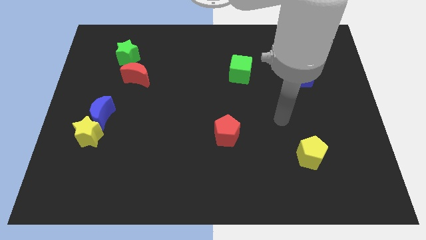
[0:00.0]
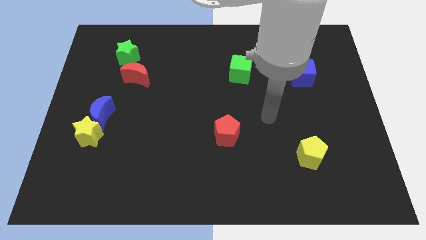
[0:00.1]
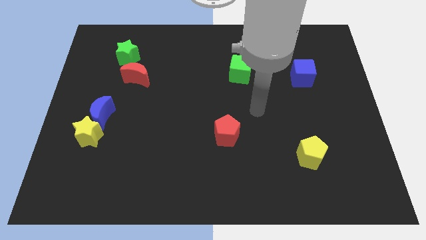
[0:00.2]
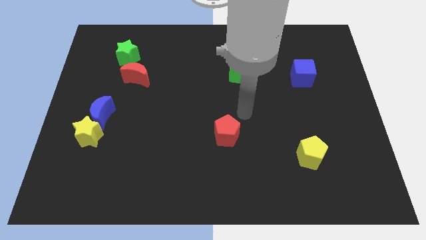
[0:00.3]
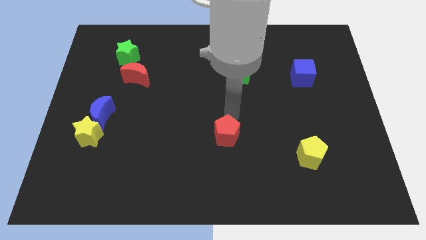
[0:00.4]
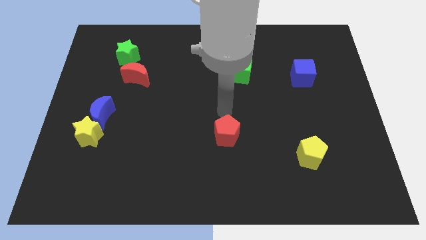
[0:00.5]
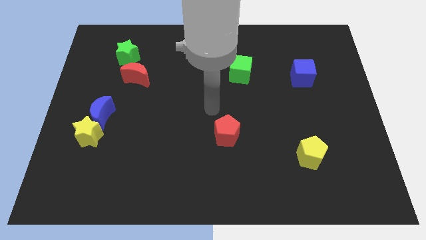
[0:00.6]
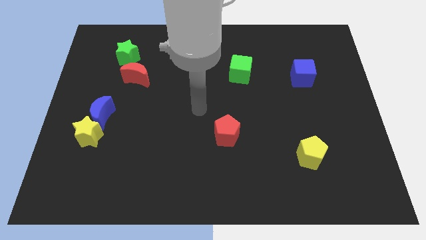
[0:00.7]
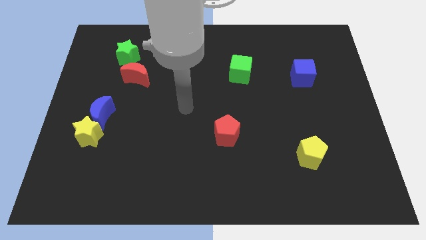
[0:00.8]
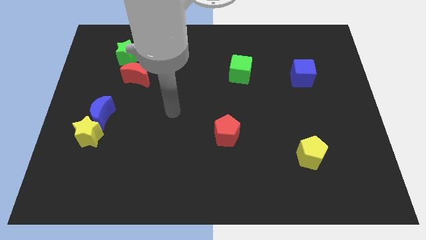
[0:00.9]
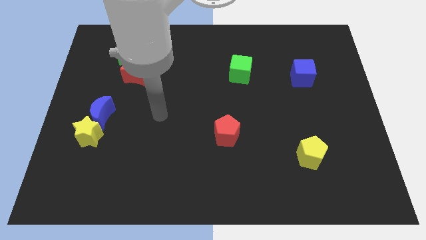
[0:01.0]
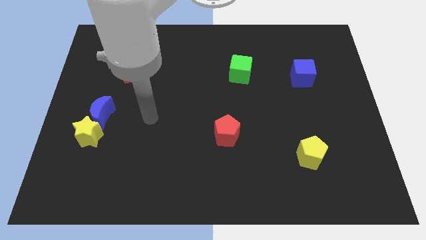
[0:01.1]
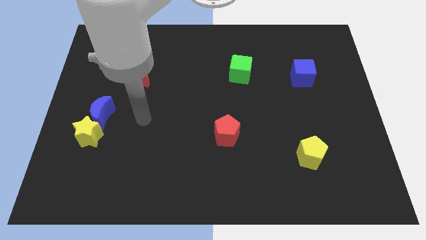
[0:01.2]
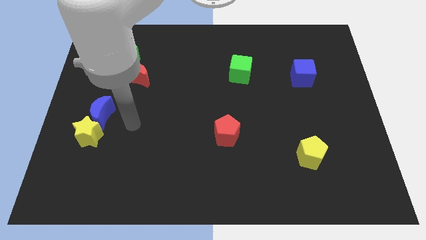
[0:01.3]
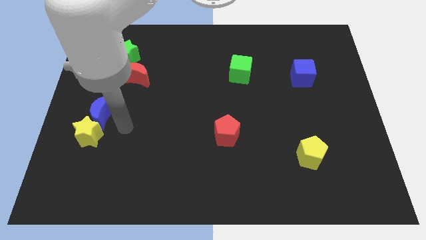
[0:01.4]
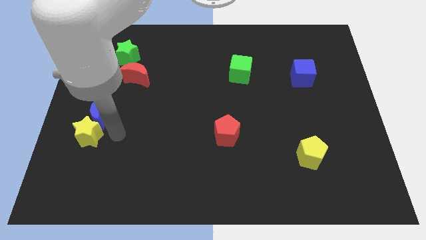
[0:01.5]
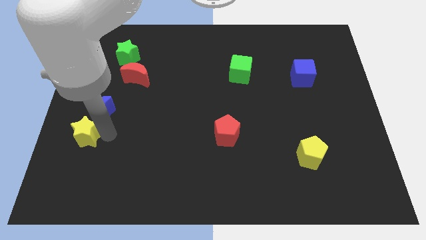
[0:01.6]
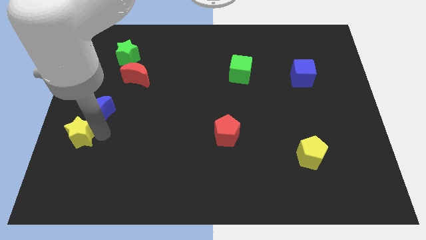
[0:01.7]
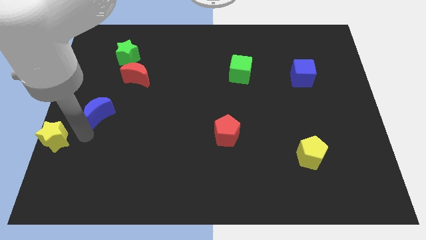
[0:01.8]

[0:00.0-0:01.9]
separate the blue moon from the yellow star

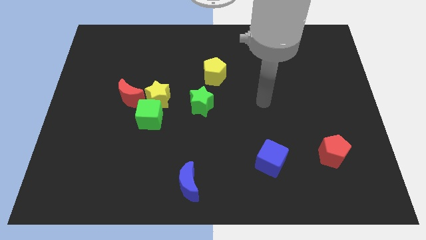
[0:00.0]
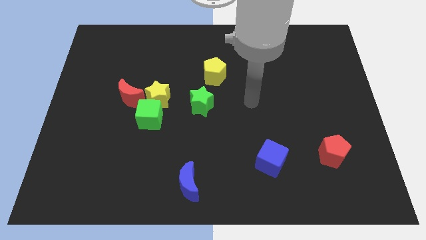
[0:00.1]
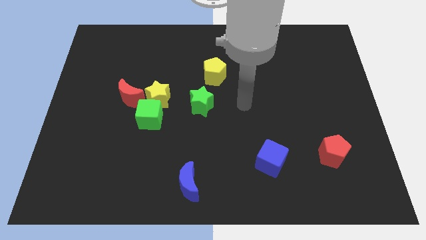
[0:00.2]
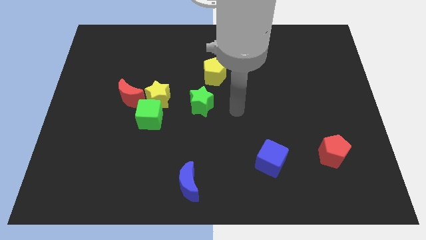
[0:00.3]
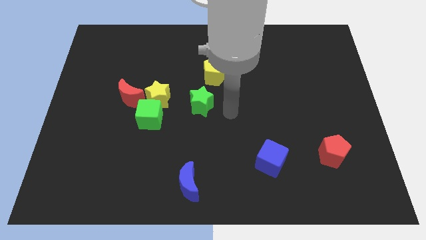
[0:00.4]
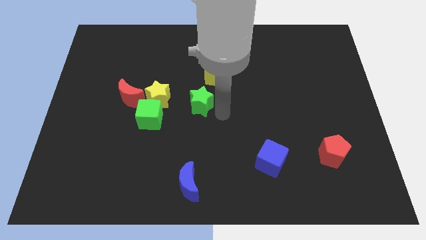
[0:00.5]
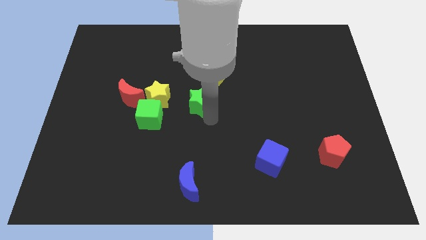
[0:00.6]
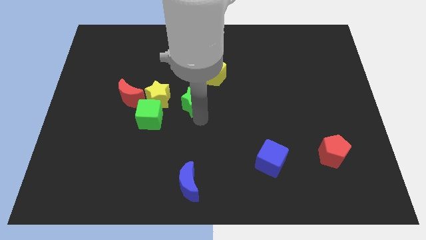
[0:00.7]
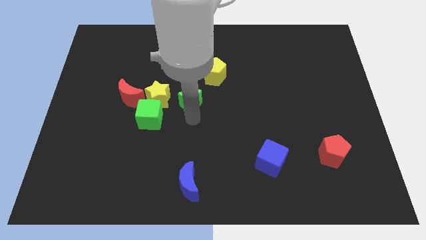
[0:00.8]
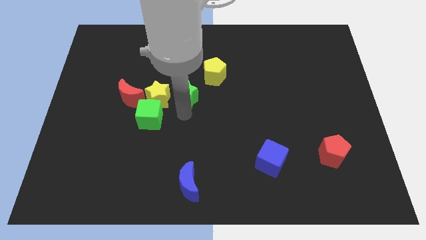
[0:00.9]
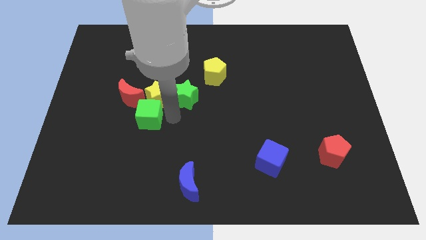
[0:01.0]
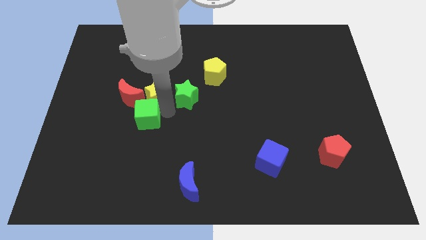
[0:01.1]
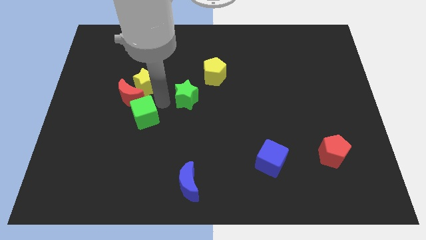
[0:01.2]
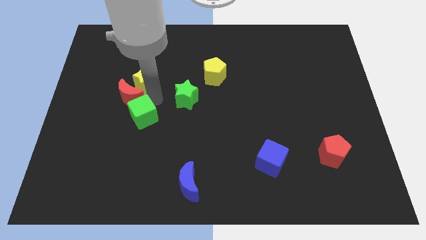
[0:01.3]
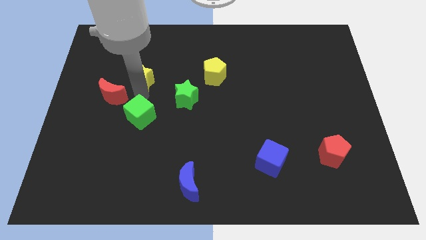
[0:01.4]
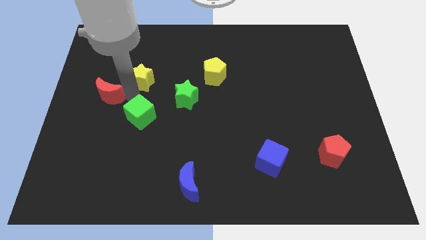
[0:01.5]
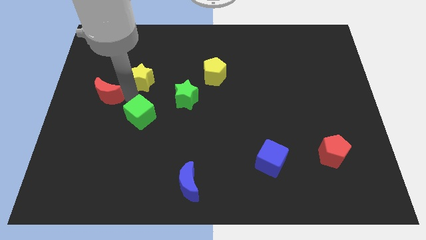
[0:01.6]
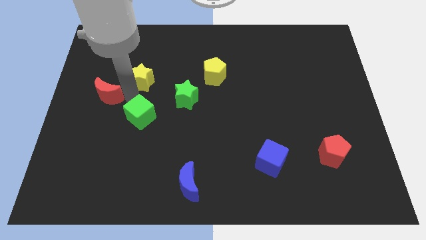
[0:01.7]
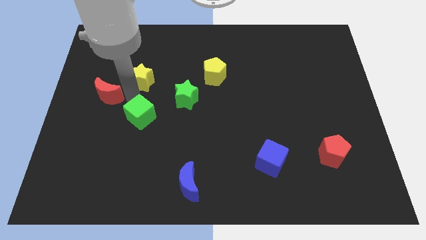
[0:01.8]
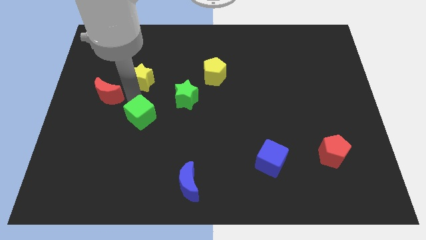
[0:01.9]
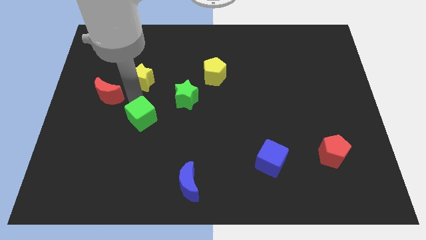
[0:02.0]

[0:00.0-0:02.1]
move the green cube away from the yellow star and red moon

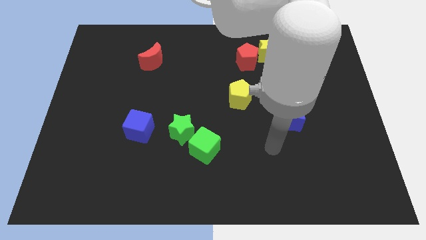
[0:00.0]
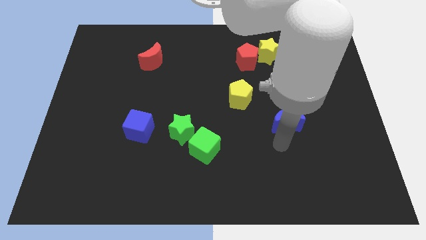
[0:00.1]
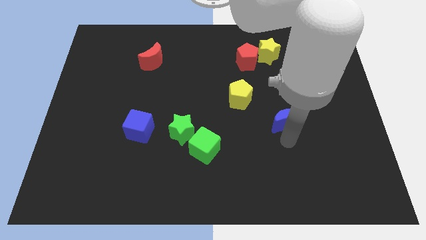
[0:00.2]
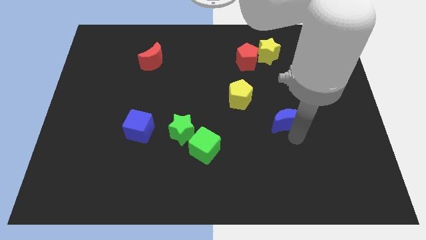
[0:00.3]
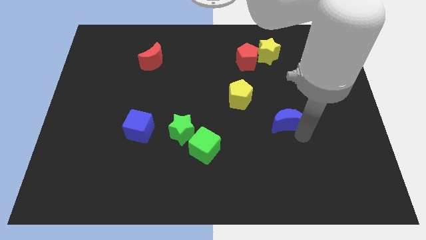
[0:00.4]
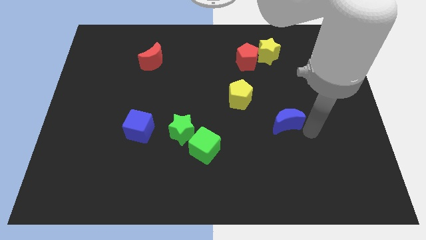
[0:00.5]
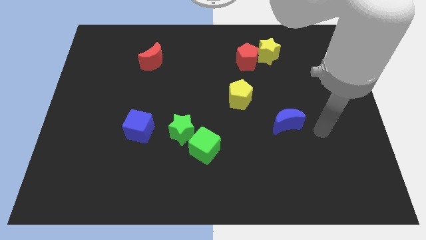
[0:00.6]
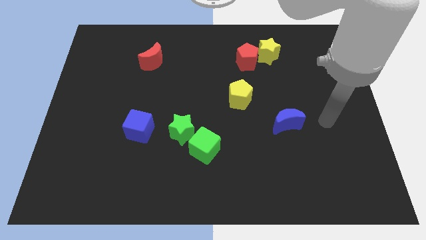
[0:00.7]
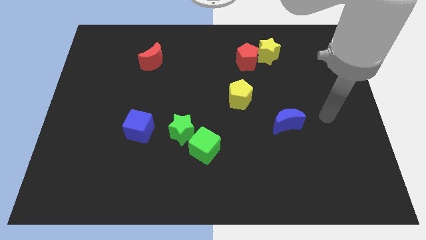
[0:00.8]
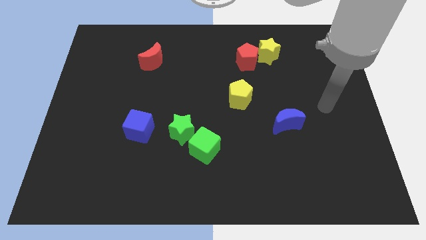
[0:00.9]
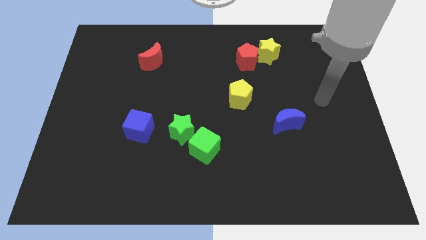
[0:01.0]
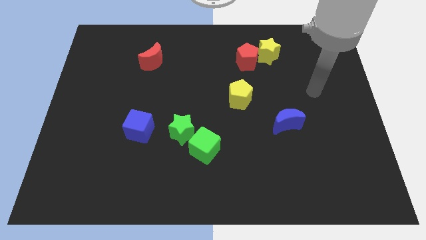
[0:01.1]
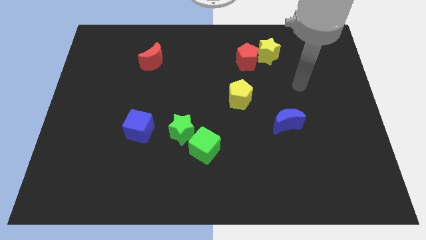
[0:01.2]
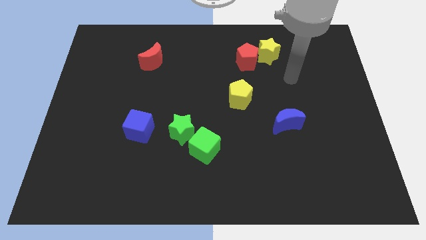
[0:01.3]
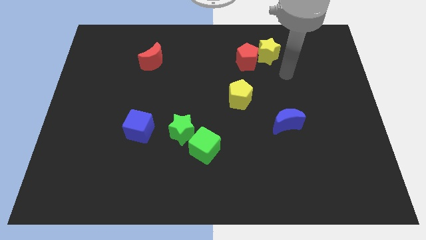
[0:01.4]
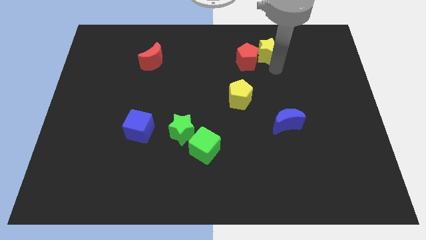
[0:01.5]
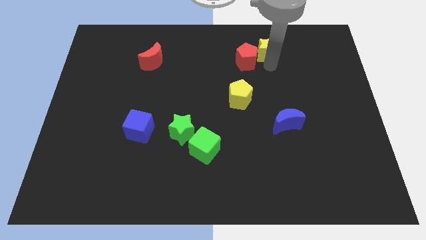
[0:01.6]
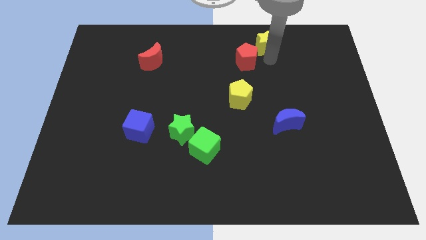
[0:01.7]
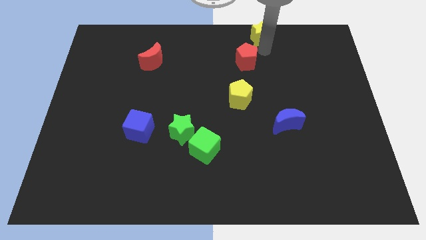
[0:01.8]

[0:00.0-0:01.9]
separate the red pentagon from the yellow star

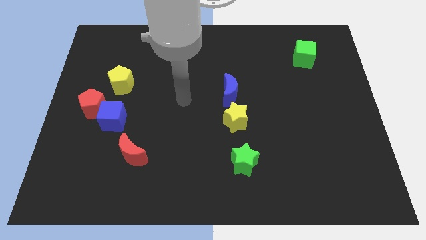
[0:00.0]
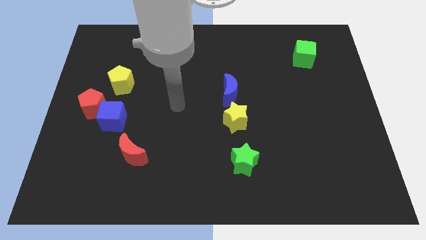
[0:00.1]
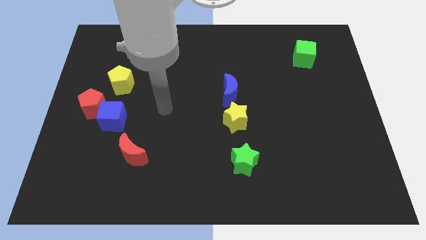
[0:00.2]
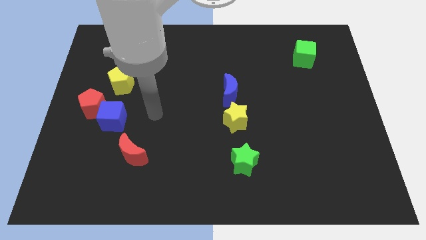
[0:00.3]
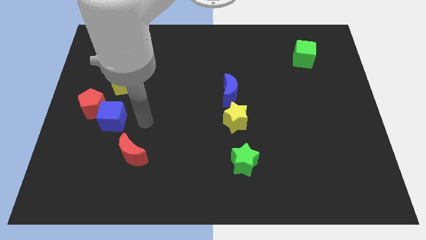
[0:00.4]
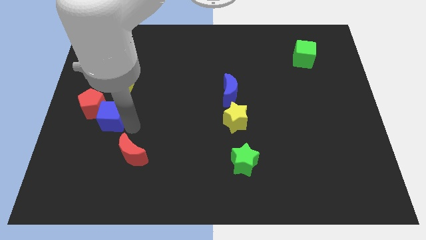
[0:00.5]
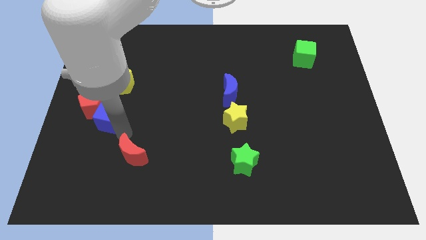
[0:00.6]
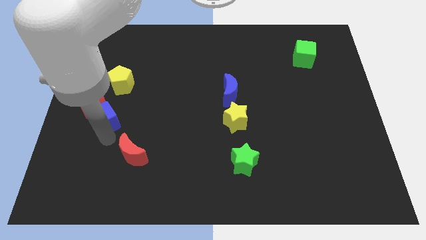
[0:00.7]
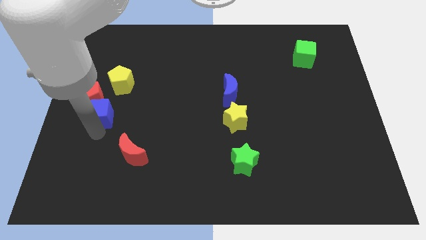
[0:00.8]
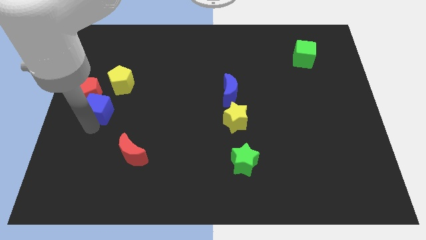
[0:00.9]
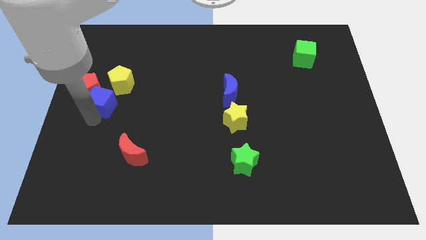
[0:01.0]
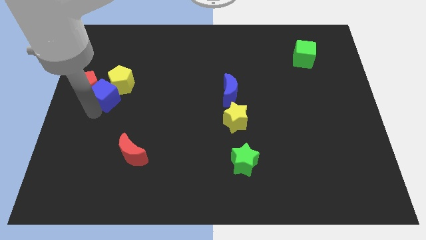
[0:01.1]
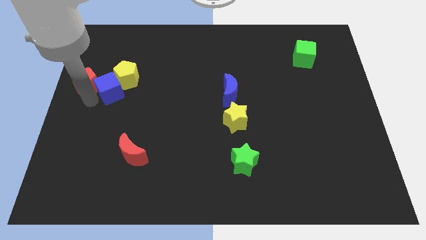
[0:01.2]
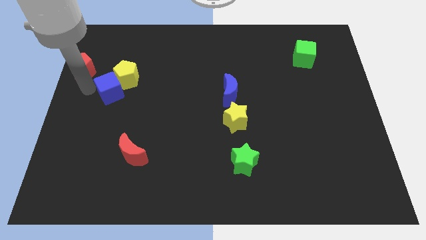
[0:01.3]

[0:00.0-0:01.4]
move the blue cube away from the red pentagon

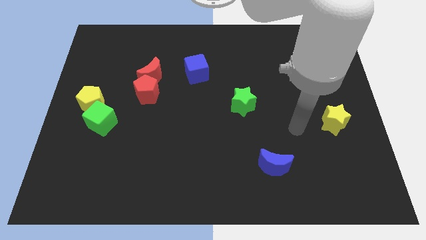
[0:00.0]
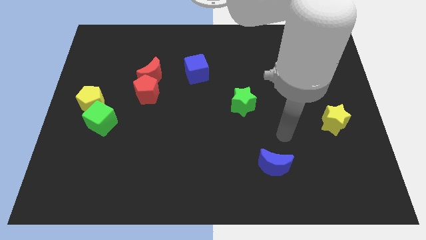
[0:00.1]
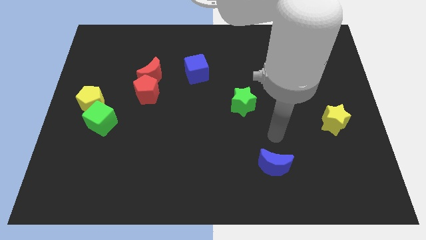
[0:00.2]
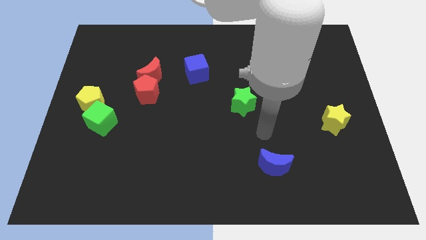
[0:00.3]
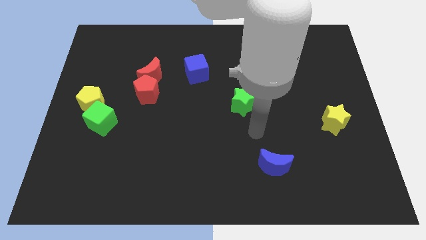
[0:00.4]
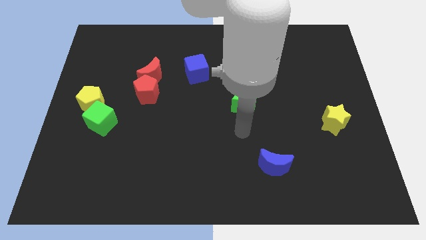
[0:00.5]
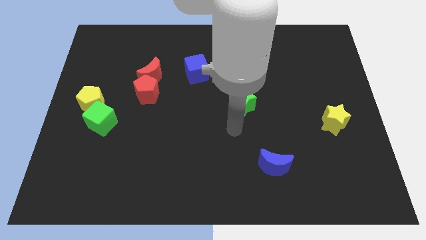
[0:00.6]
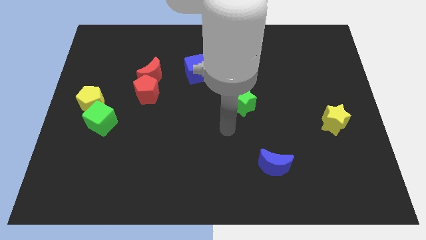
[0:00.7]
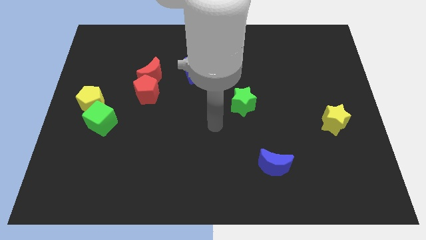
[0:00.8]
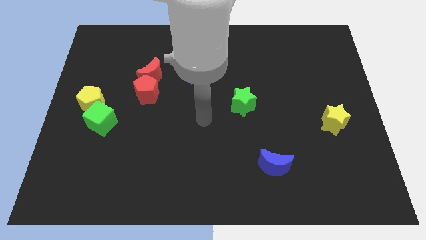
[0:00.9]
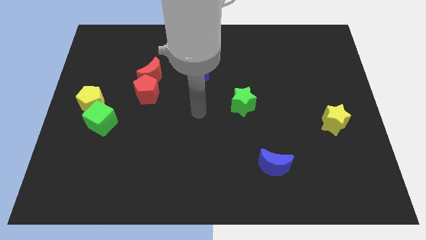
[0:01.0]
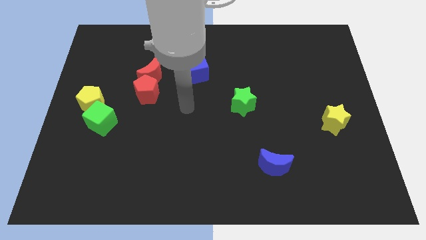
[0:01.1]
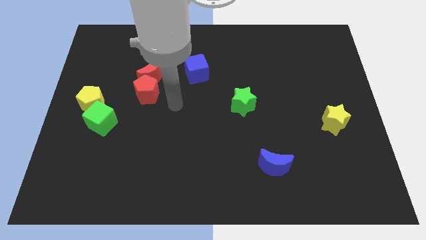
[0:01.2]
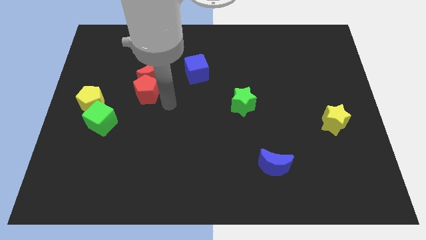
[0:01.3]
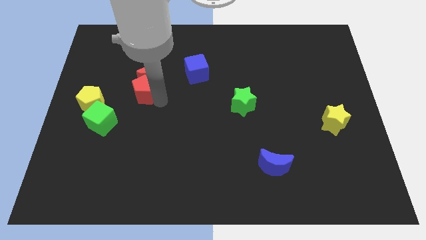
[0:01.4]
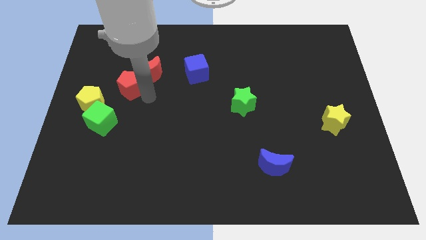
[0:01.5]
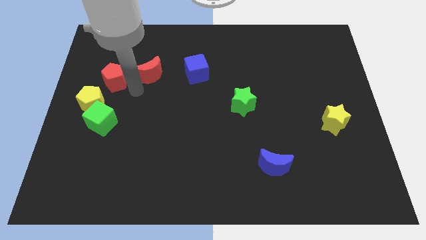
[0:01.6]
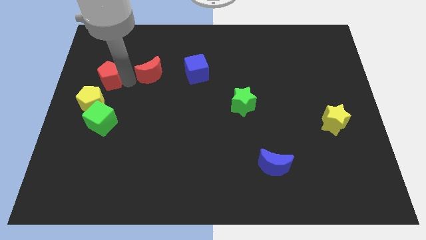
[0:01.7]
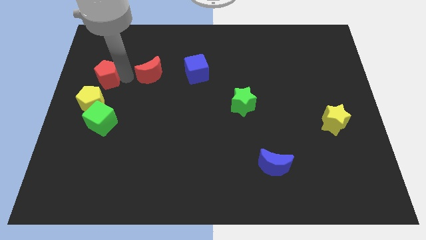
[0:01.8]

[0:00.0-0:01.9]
pull the red moon apart from the red pentagon
